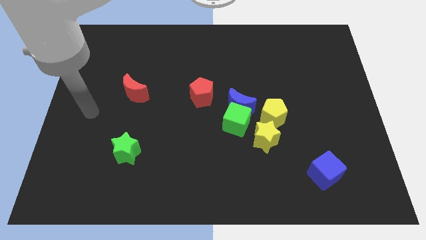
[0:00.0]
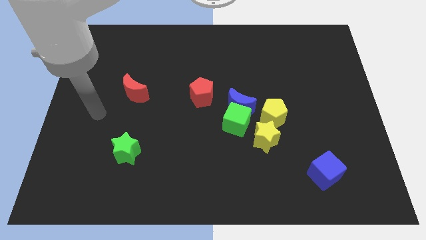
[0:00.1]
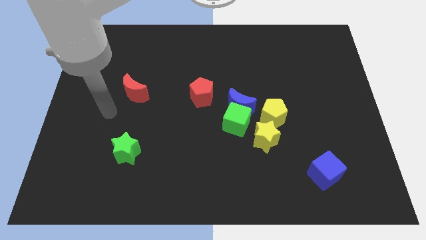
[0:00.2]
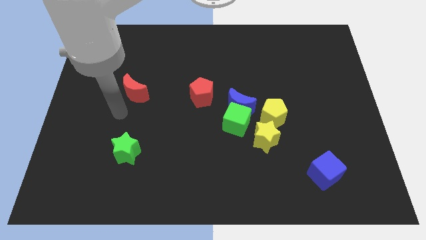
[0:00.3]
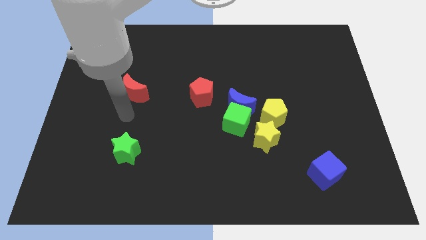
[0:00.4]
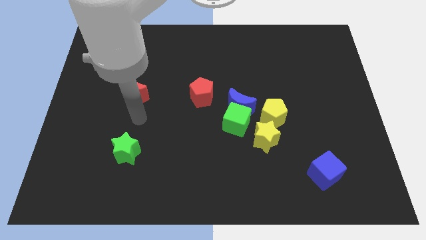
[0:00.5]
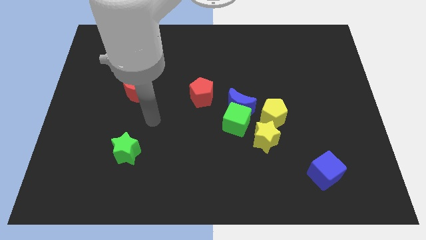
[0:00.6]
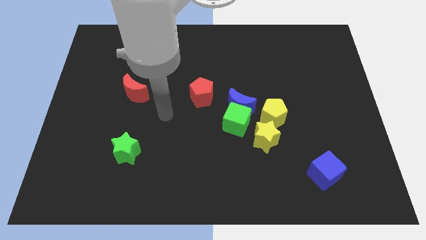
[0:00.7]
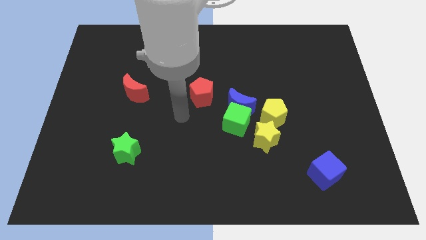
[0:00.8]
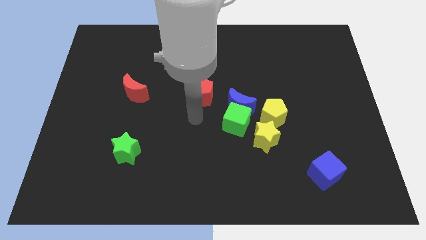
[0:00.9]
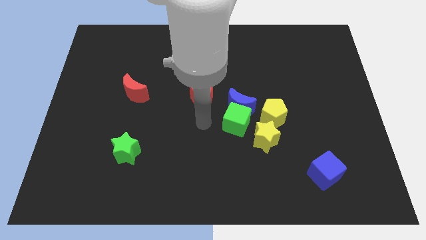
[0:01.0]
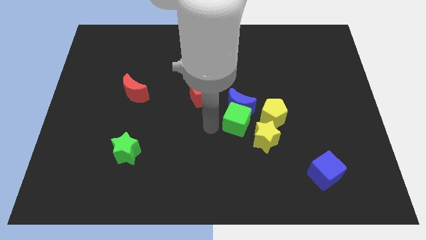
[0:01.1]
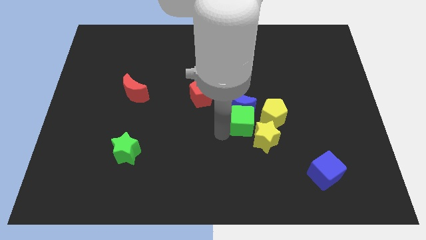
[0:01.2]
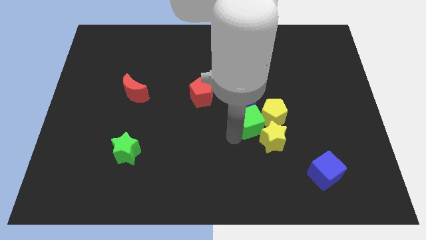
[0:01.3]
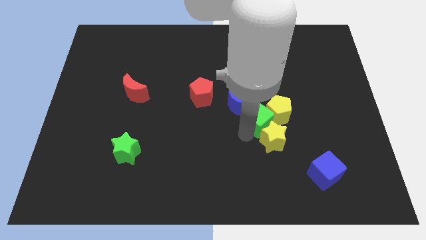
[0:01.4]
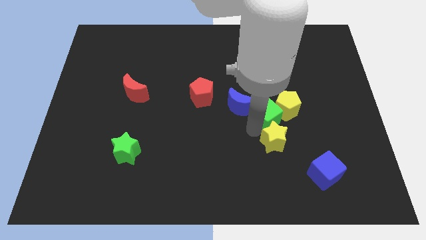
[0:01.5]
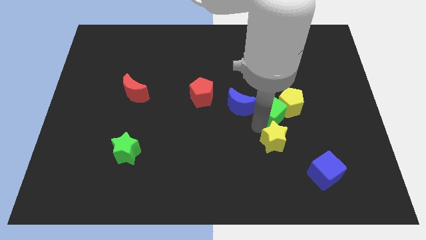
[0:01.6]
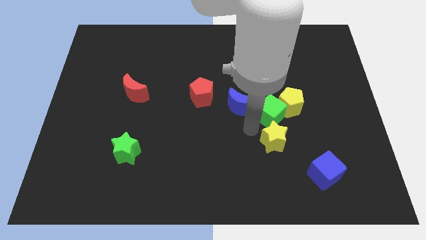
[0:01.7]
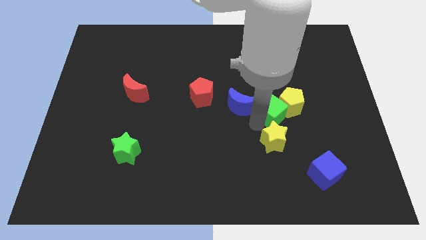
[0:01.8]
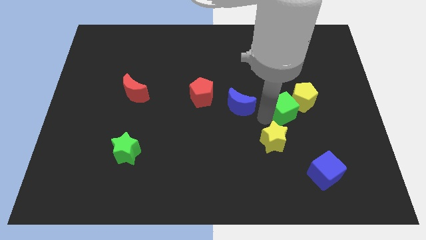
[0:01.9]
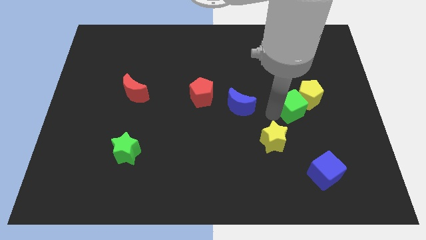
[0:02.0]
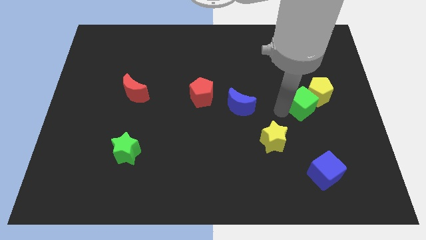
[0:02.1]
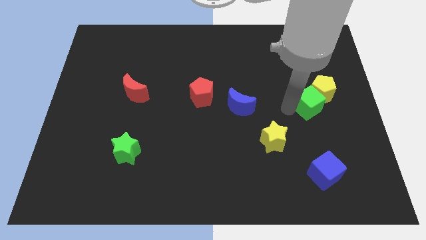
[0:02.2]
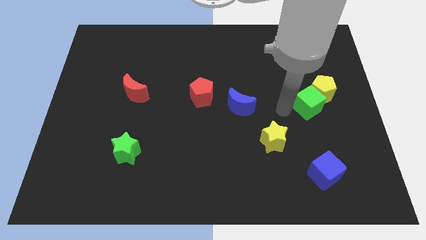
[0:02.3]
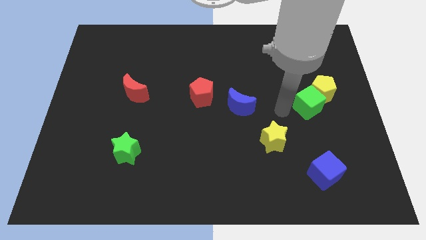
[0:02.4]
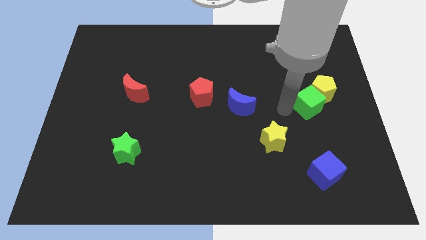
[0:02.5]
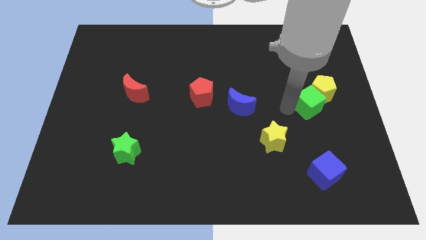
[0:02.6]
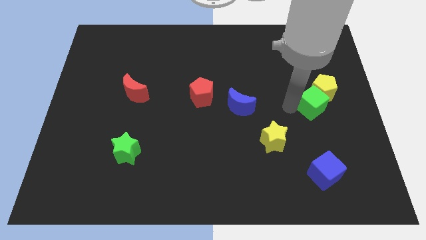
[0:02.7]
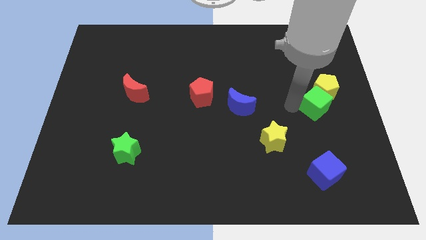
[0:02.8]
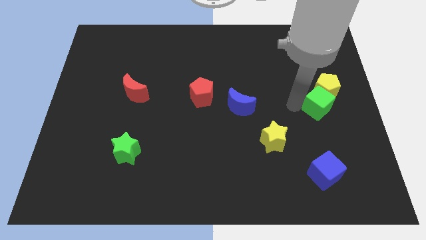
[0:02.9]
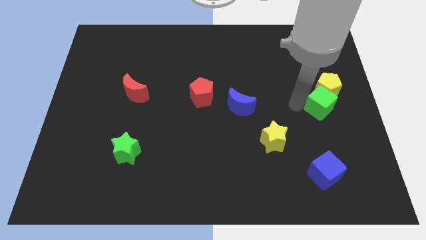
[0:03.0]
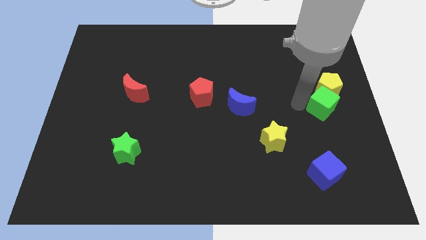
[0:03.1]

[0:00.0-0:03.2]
separate the green cube from the blue moon, yellow star, and yellow pentagon

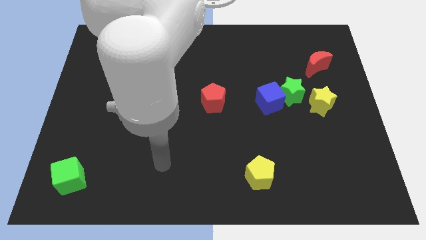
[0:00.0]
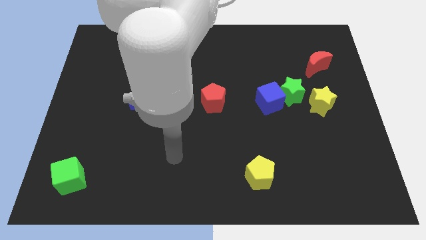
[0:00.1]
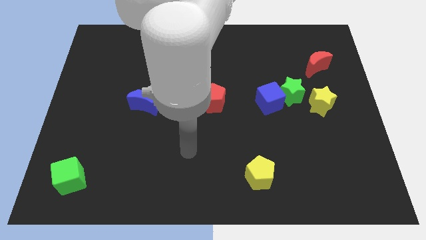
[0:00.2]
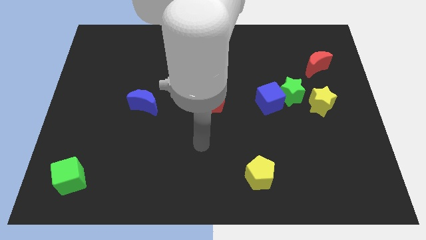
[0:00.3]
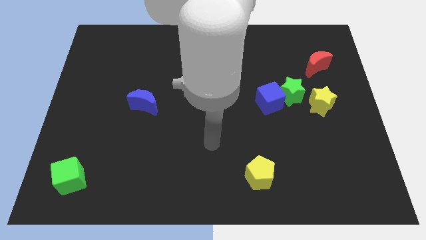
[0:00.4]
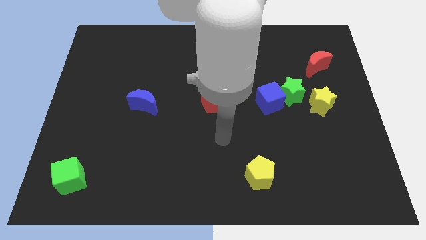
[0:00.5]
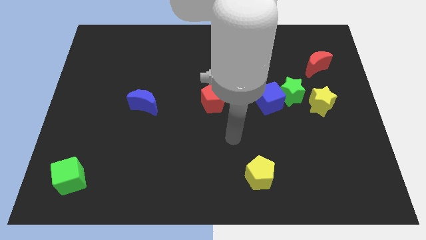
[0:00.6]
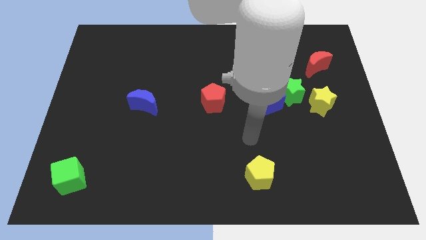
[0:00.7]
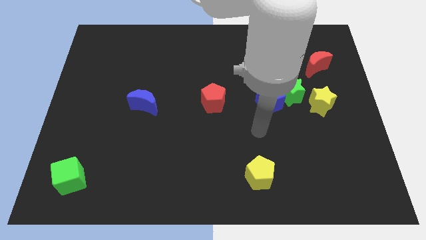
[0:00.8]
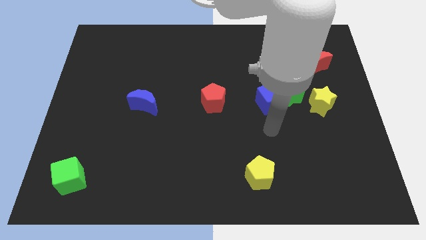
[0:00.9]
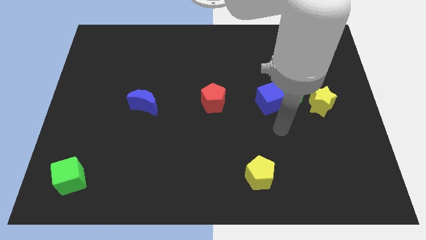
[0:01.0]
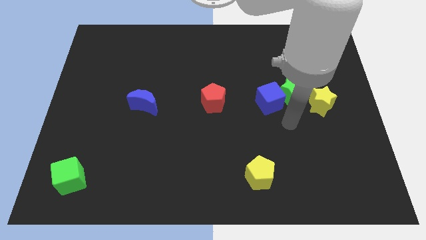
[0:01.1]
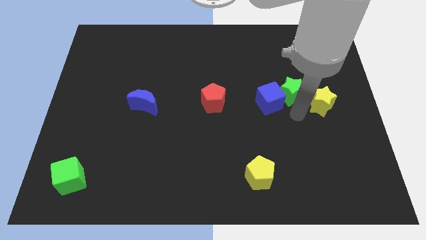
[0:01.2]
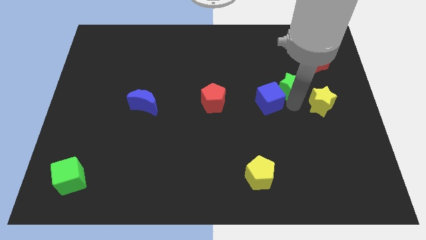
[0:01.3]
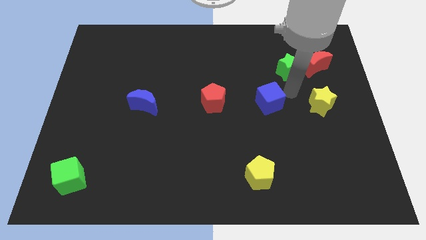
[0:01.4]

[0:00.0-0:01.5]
separate the blue cube from the green star

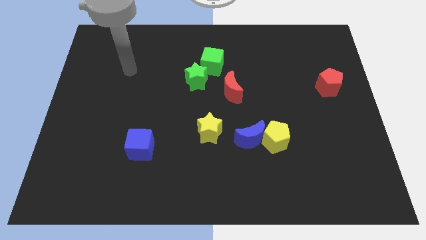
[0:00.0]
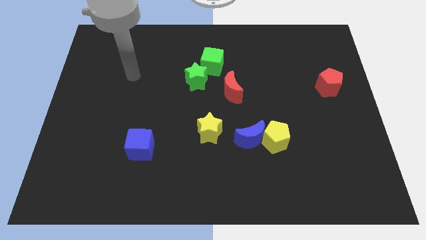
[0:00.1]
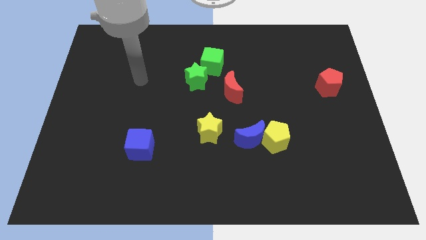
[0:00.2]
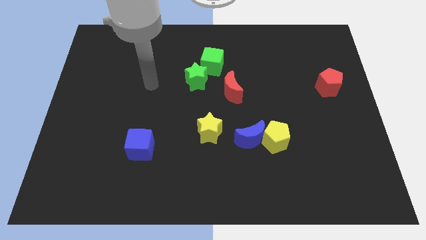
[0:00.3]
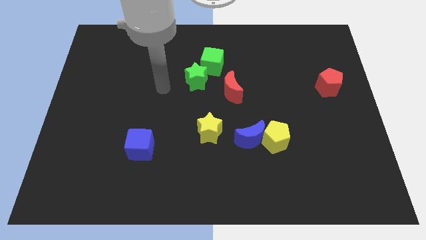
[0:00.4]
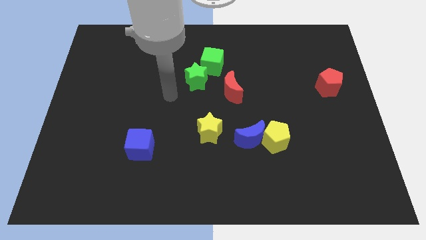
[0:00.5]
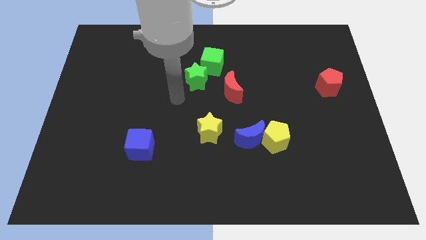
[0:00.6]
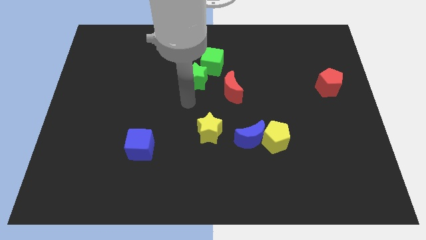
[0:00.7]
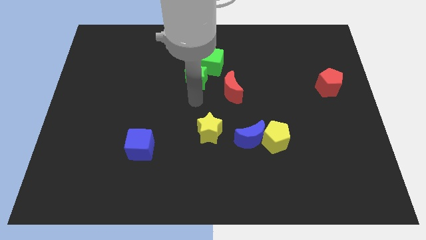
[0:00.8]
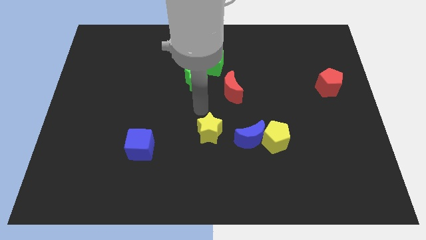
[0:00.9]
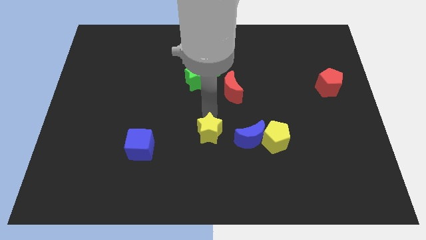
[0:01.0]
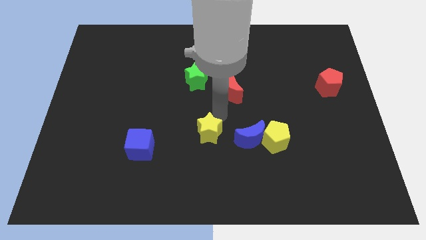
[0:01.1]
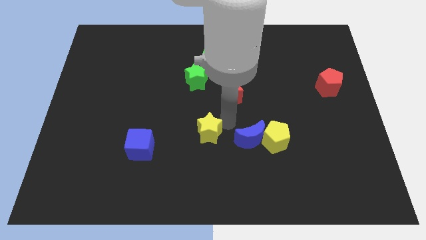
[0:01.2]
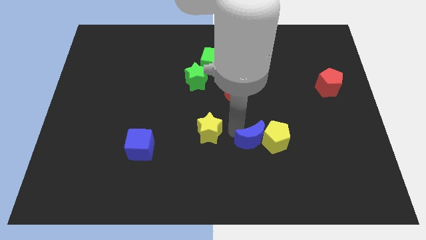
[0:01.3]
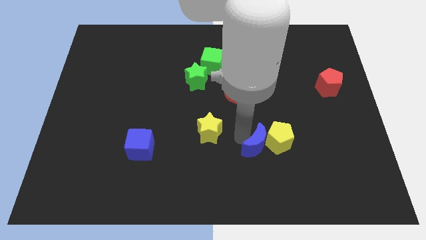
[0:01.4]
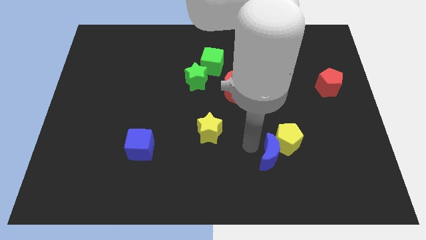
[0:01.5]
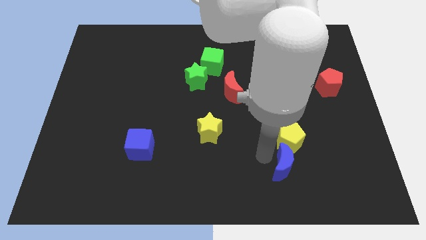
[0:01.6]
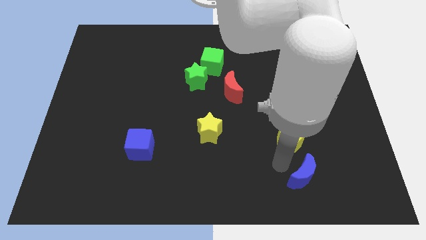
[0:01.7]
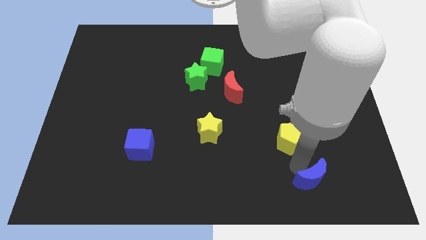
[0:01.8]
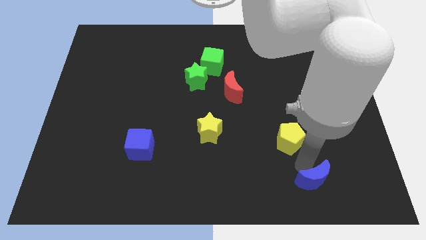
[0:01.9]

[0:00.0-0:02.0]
pull the yellow pentagon apart from the blue moon

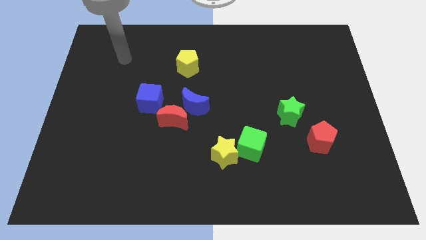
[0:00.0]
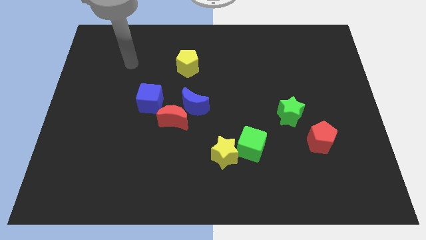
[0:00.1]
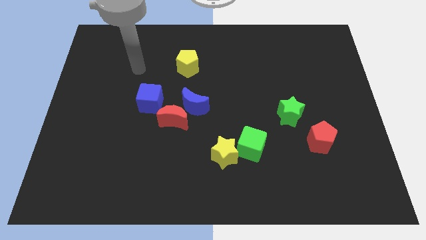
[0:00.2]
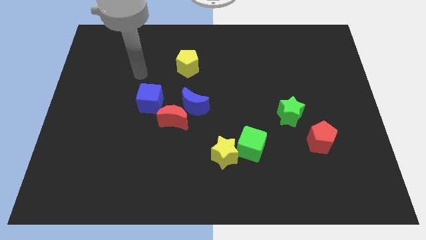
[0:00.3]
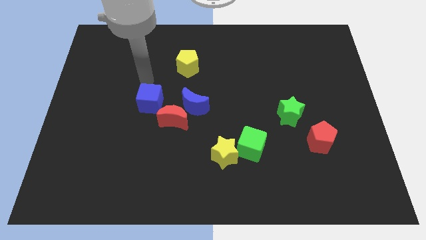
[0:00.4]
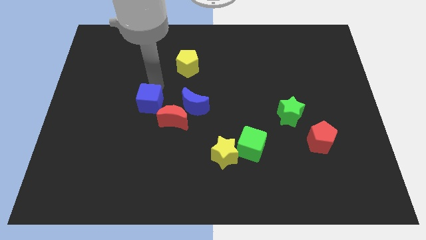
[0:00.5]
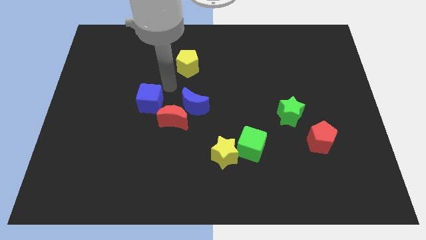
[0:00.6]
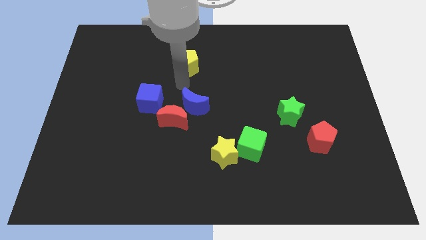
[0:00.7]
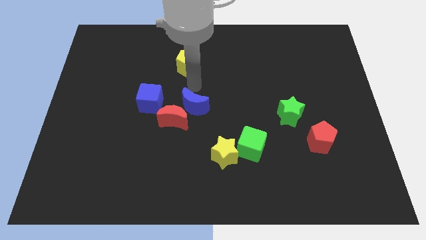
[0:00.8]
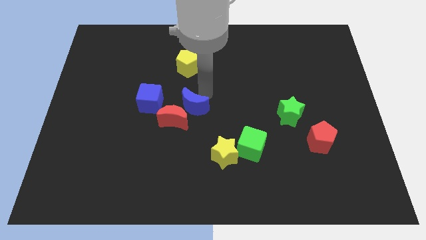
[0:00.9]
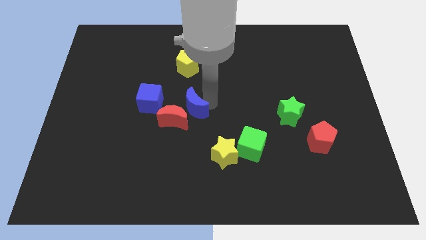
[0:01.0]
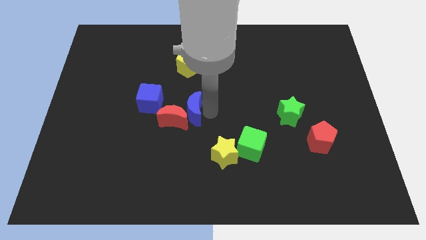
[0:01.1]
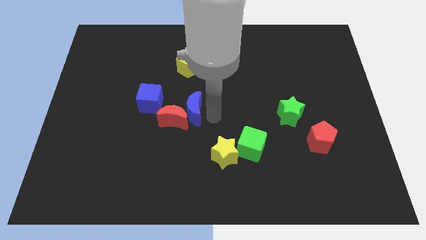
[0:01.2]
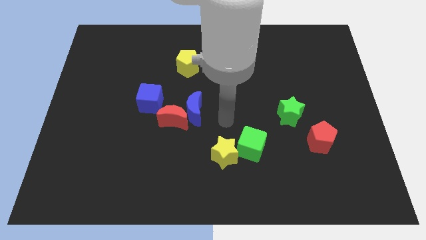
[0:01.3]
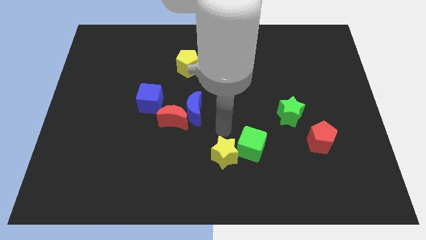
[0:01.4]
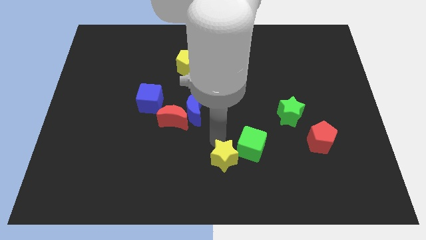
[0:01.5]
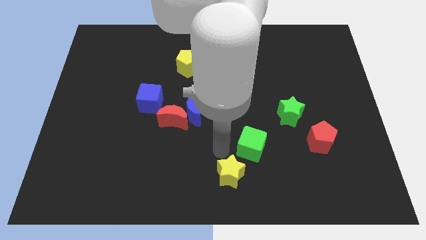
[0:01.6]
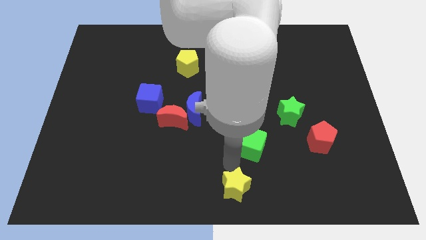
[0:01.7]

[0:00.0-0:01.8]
pull the green cube apart from the yellow star

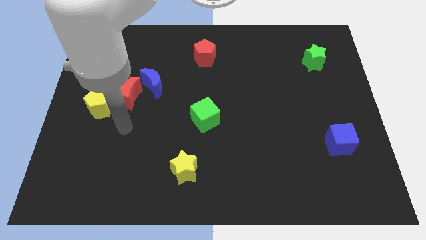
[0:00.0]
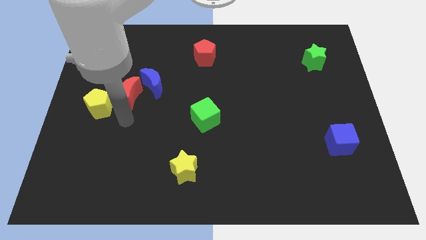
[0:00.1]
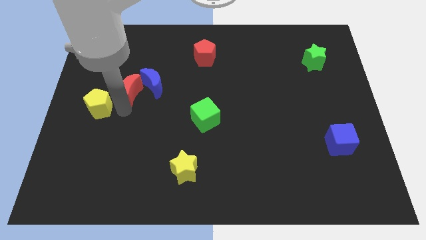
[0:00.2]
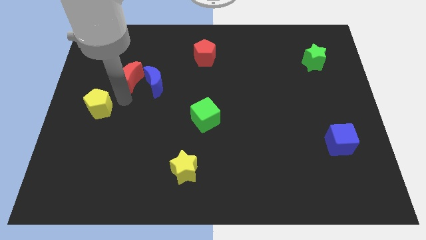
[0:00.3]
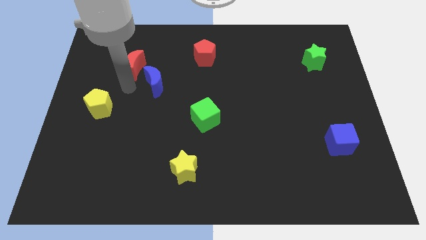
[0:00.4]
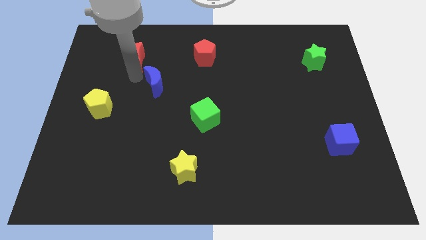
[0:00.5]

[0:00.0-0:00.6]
move the blue moon away from the red moon

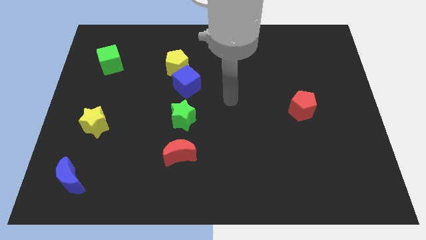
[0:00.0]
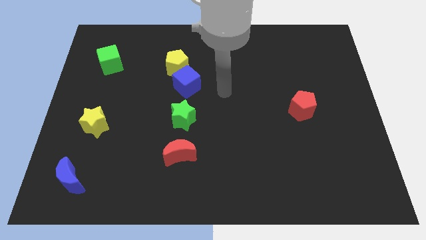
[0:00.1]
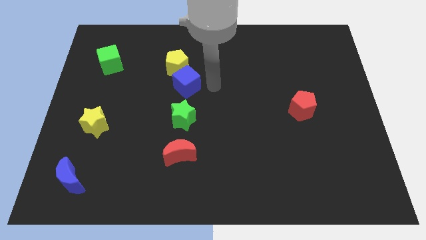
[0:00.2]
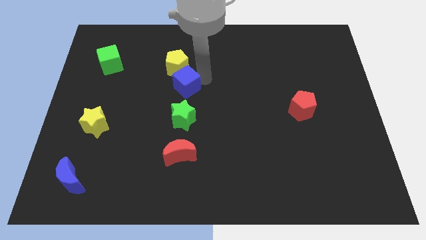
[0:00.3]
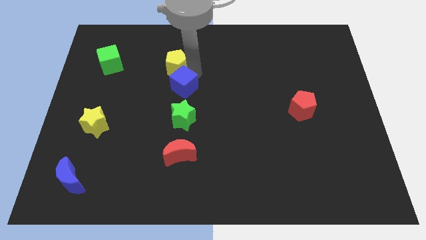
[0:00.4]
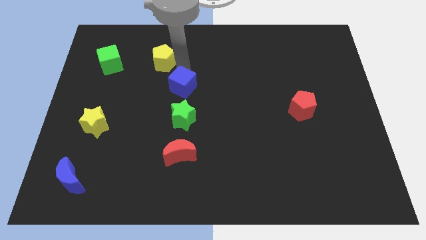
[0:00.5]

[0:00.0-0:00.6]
move the blue cube away from the yellow pentagon
